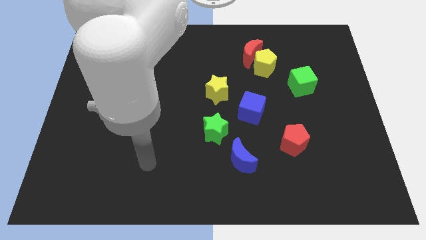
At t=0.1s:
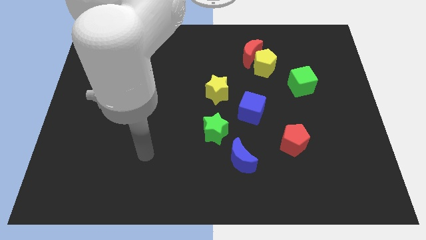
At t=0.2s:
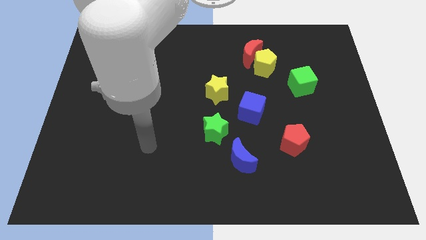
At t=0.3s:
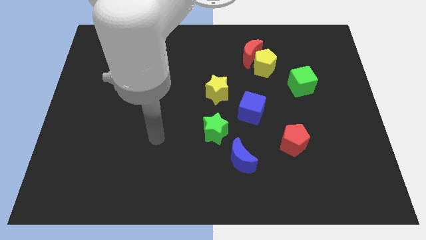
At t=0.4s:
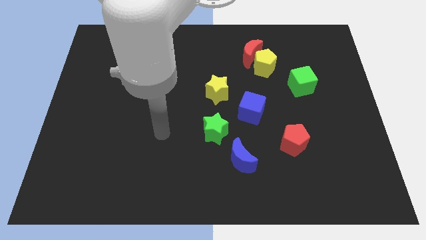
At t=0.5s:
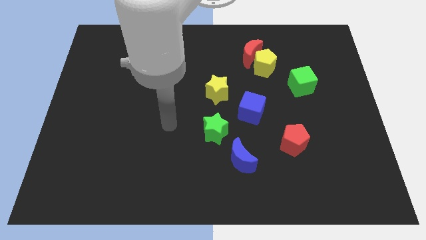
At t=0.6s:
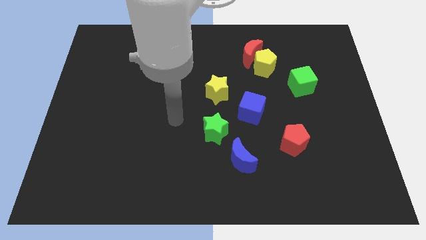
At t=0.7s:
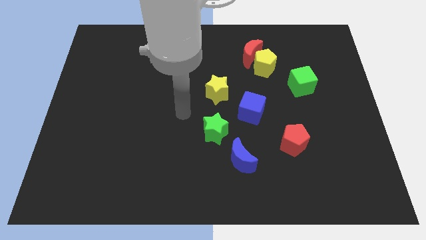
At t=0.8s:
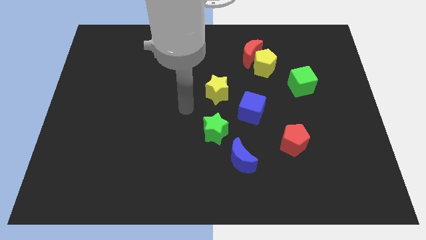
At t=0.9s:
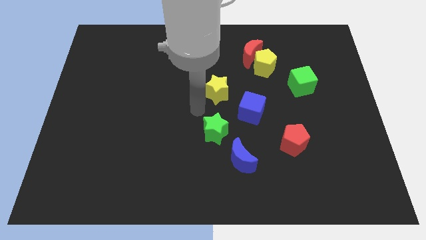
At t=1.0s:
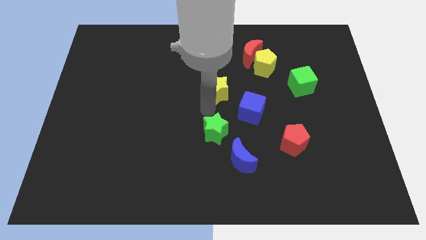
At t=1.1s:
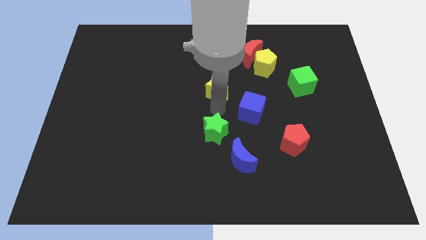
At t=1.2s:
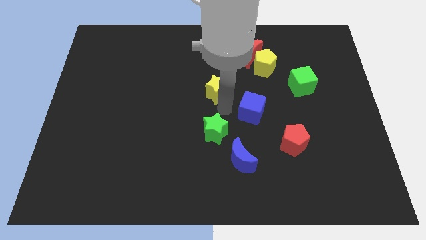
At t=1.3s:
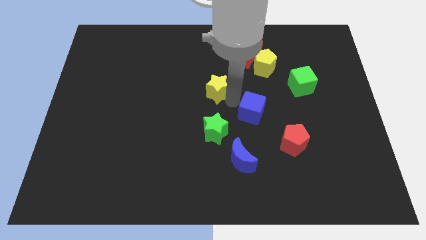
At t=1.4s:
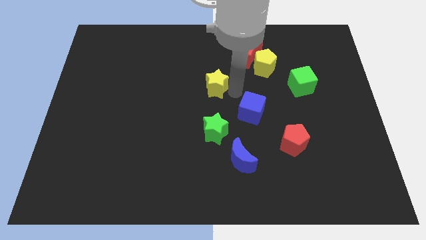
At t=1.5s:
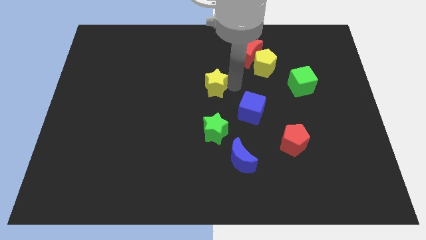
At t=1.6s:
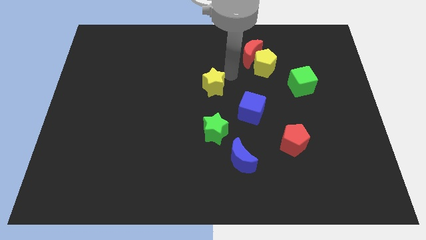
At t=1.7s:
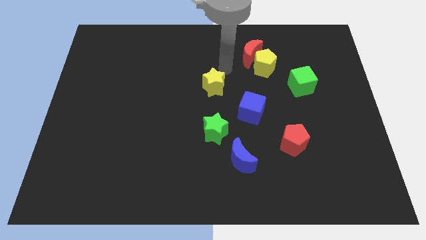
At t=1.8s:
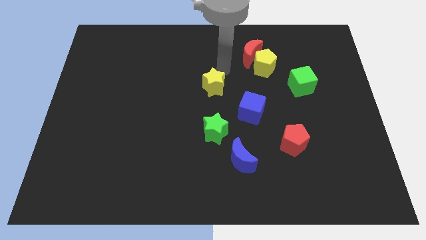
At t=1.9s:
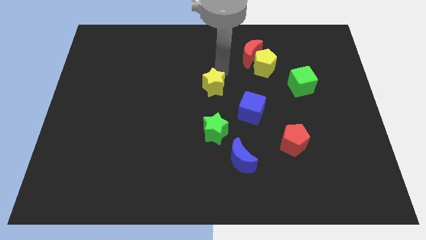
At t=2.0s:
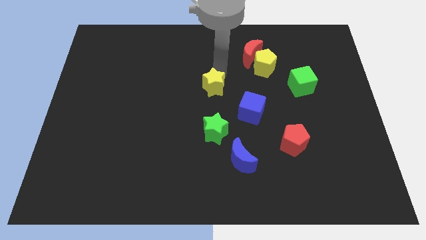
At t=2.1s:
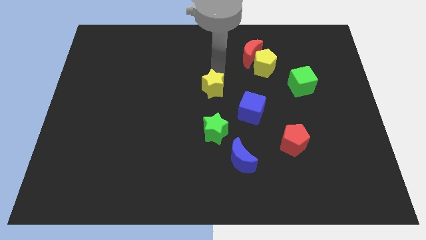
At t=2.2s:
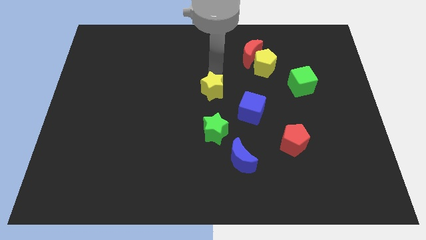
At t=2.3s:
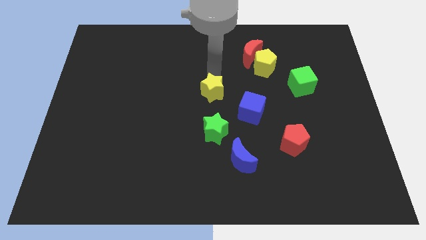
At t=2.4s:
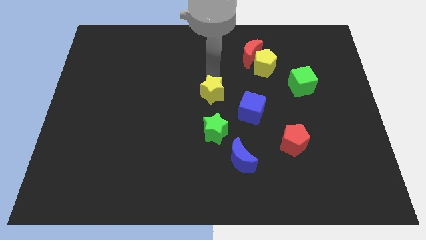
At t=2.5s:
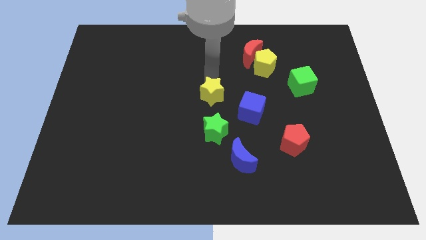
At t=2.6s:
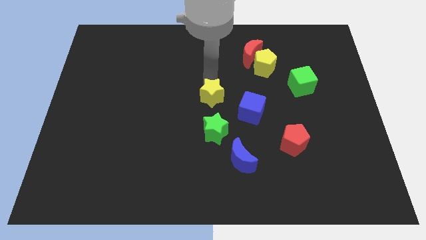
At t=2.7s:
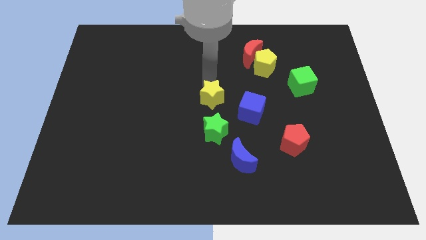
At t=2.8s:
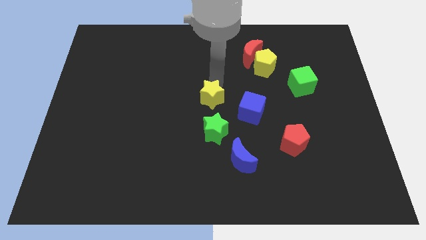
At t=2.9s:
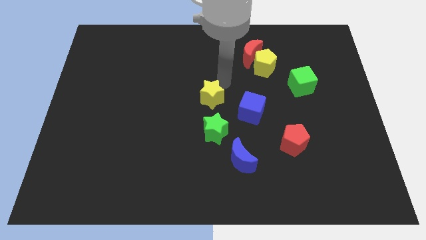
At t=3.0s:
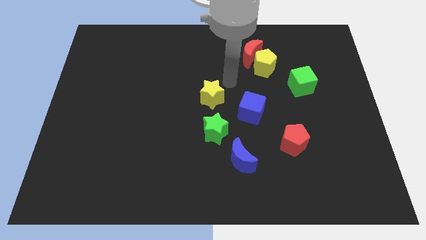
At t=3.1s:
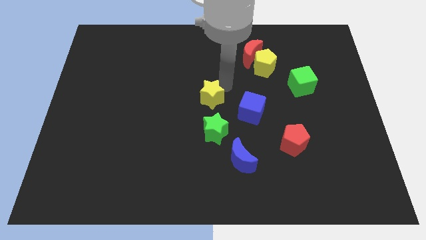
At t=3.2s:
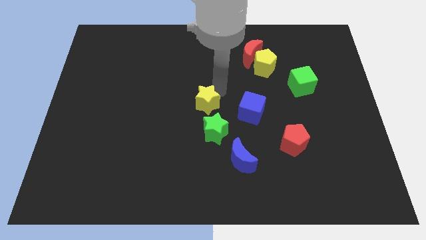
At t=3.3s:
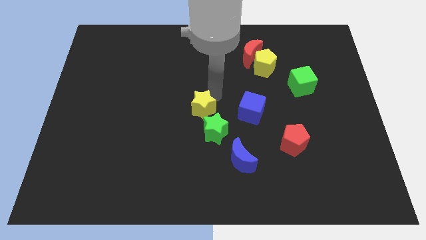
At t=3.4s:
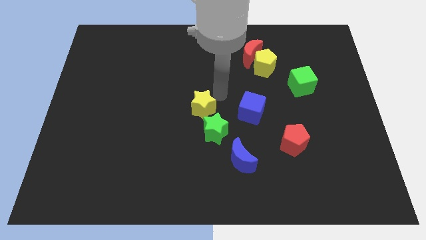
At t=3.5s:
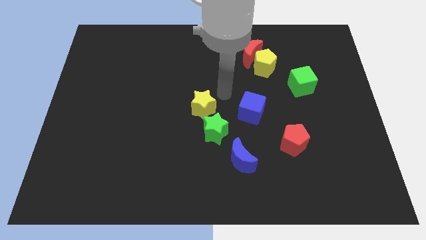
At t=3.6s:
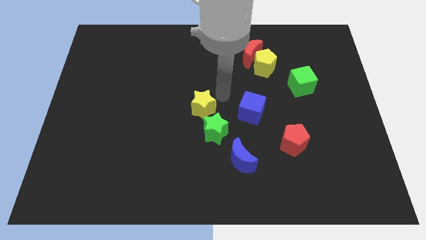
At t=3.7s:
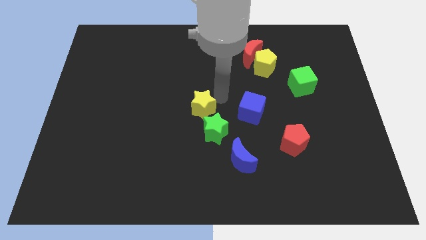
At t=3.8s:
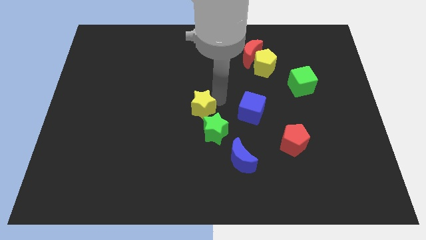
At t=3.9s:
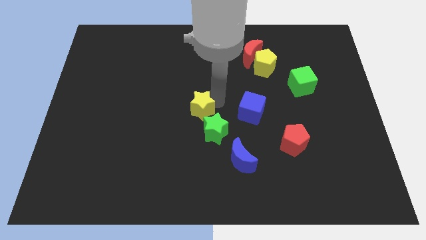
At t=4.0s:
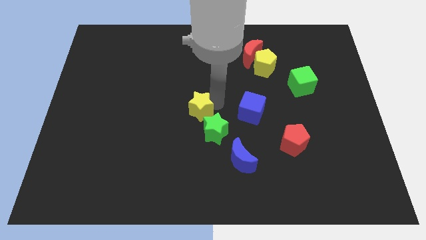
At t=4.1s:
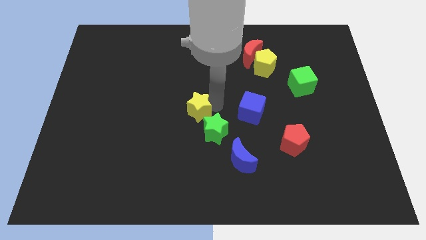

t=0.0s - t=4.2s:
slightly move the yellow star downwards and left diagonally

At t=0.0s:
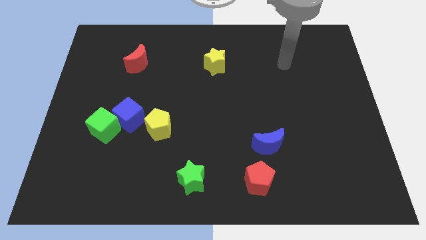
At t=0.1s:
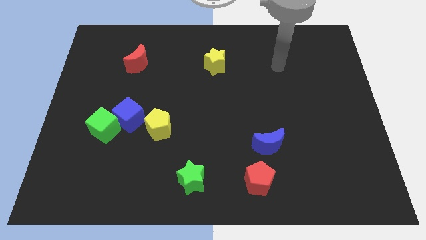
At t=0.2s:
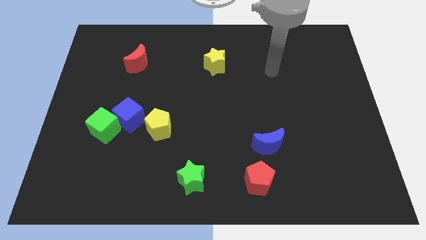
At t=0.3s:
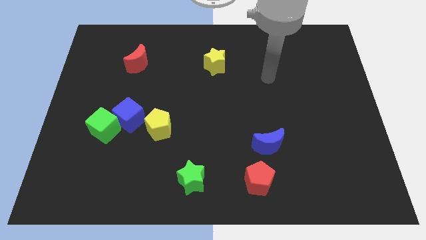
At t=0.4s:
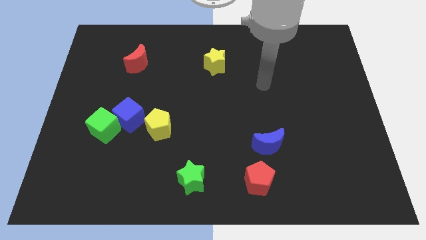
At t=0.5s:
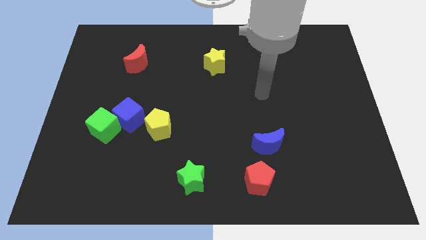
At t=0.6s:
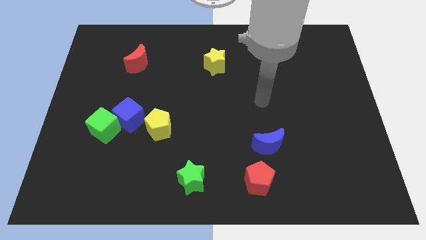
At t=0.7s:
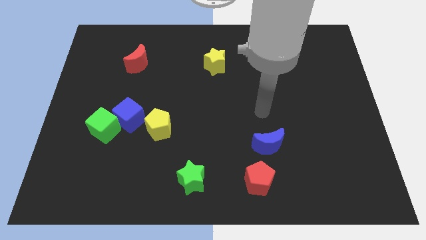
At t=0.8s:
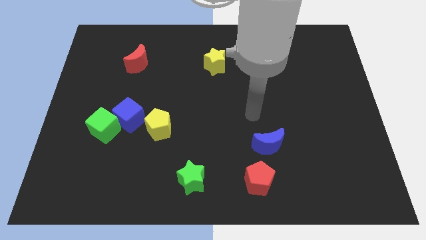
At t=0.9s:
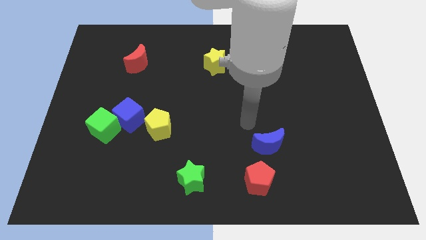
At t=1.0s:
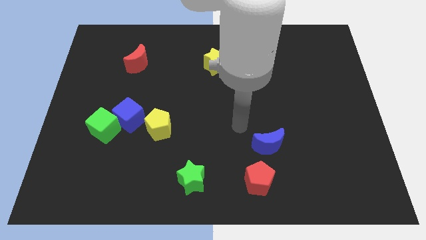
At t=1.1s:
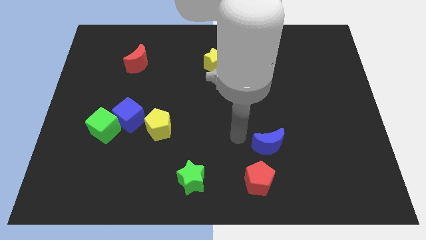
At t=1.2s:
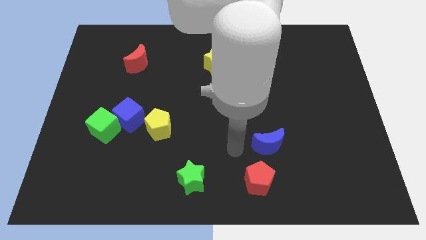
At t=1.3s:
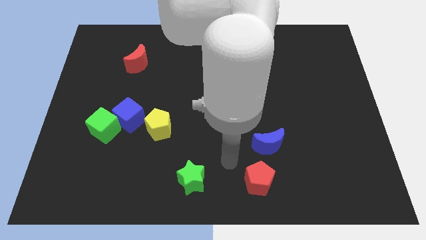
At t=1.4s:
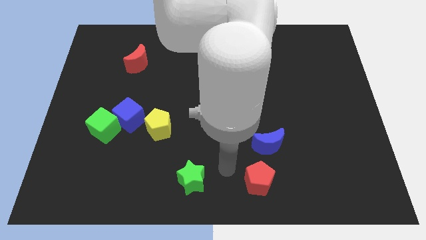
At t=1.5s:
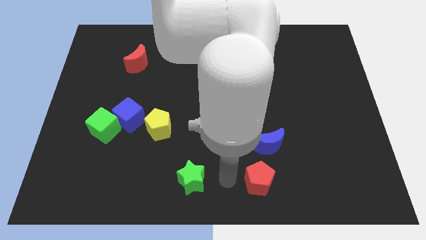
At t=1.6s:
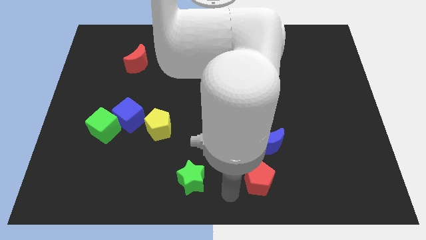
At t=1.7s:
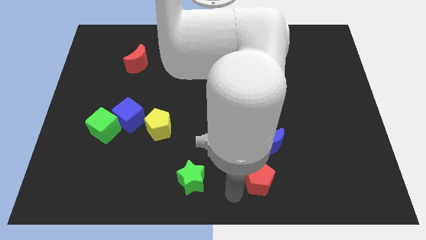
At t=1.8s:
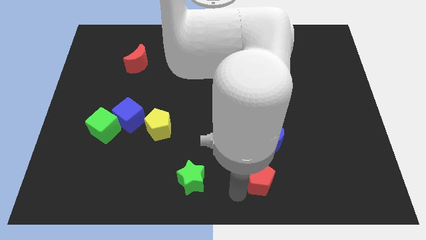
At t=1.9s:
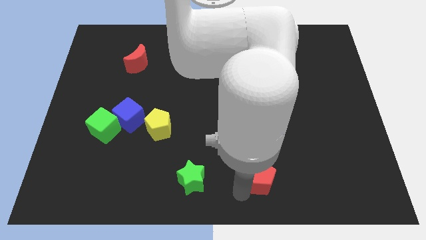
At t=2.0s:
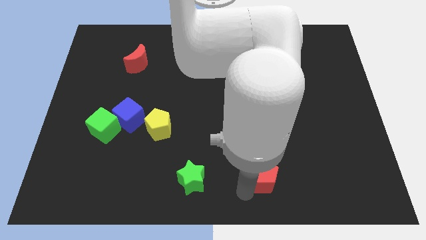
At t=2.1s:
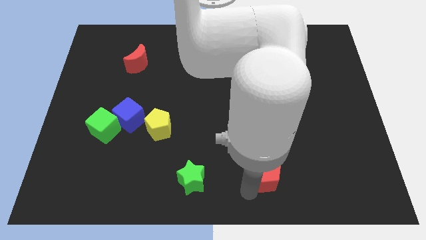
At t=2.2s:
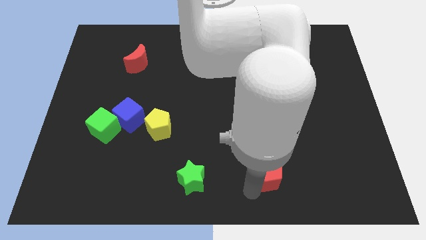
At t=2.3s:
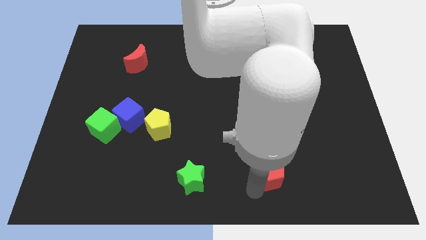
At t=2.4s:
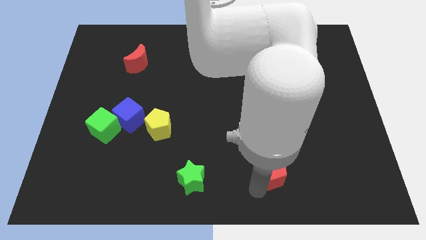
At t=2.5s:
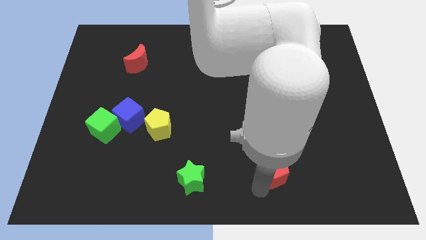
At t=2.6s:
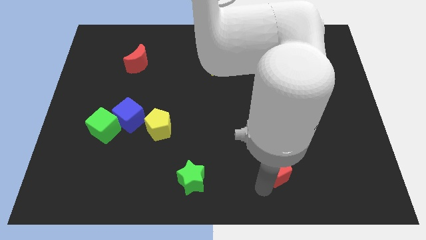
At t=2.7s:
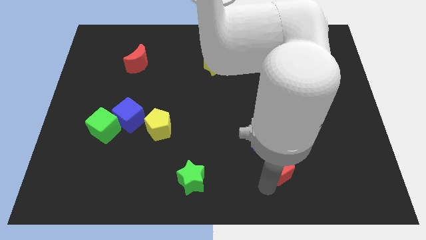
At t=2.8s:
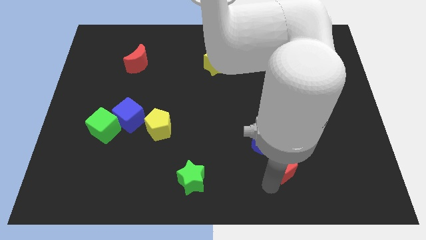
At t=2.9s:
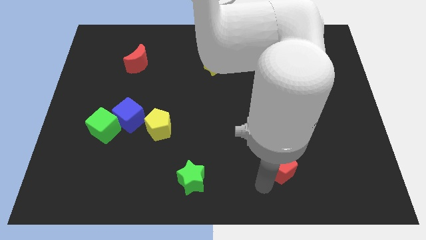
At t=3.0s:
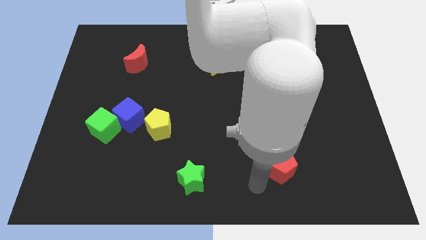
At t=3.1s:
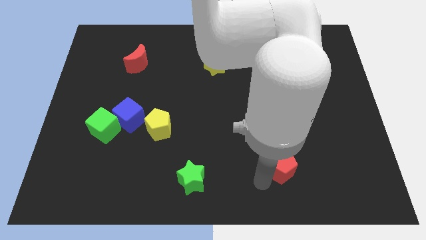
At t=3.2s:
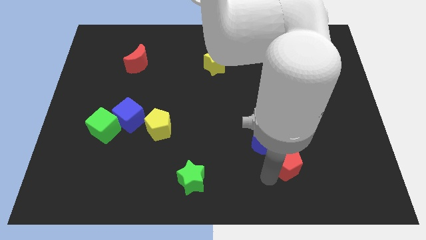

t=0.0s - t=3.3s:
move the red pentagon upwards and to the right diagonally a little

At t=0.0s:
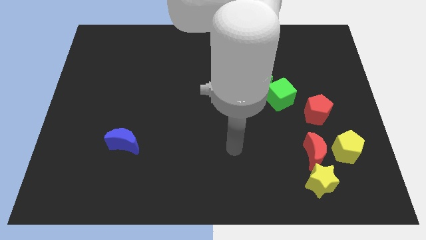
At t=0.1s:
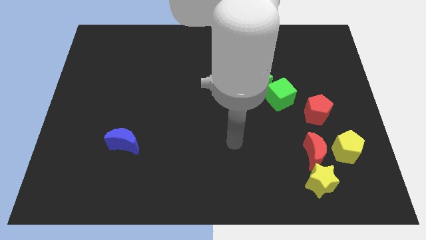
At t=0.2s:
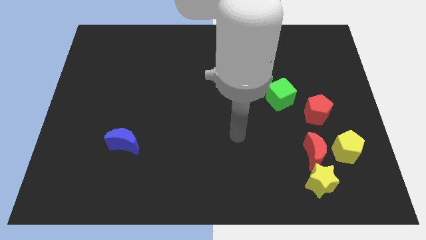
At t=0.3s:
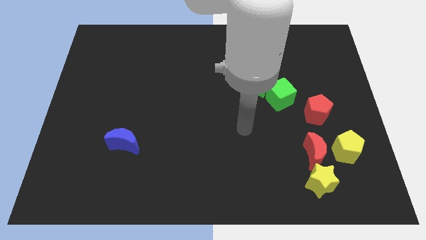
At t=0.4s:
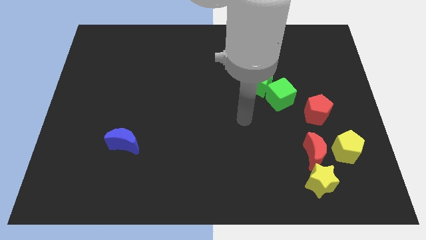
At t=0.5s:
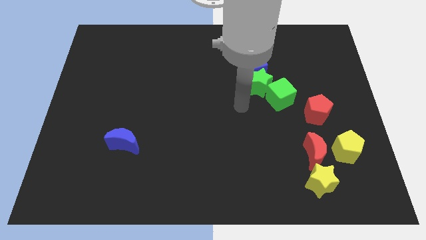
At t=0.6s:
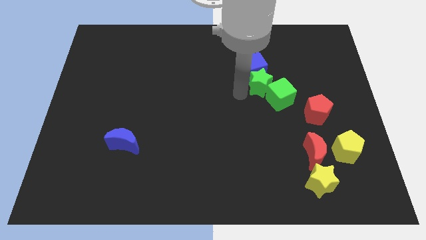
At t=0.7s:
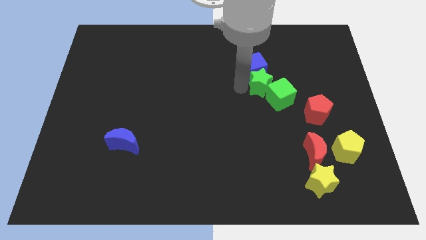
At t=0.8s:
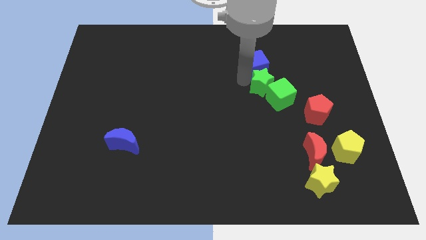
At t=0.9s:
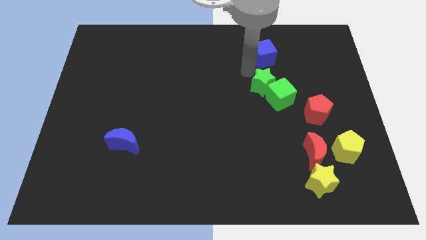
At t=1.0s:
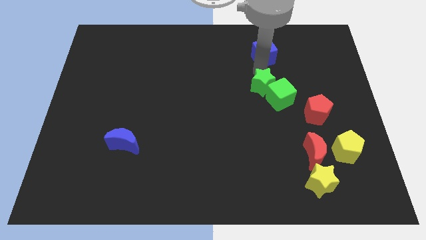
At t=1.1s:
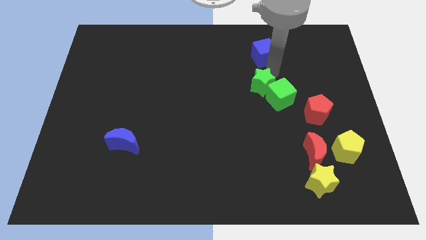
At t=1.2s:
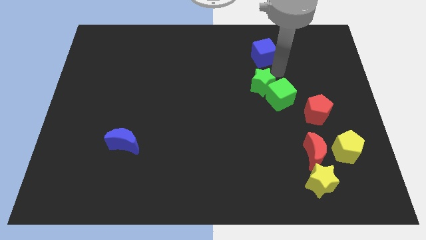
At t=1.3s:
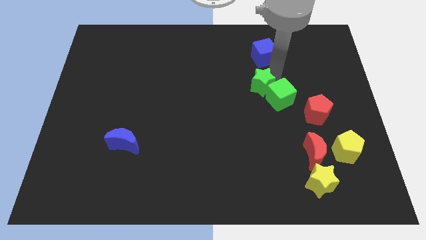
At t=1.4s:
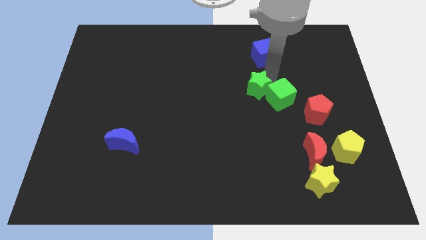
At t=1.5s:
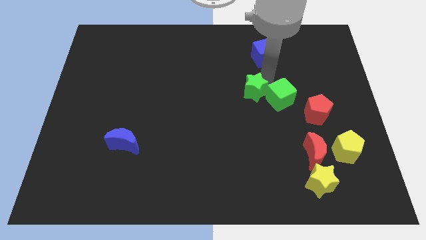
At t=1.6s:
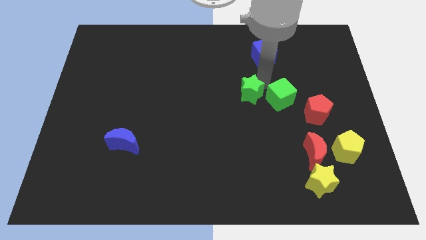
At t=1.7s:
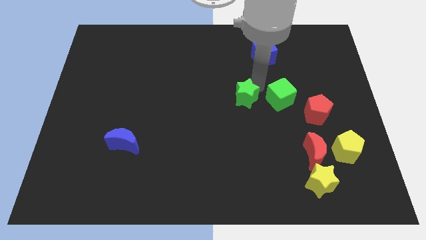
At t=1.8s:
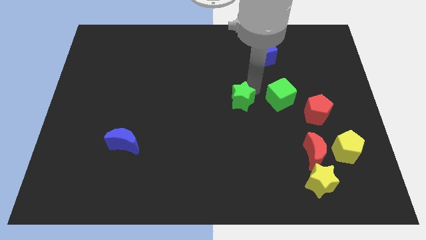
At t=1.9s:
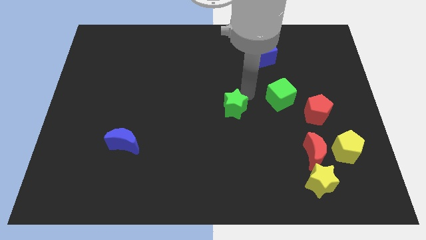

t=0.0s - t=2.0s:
slightly move the green star diagonally downwards and to the left
